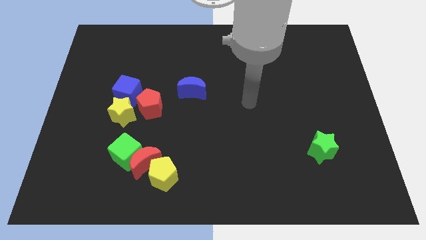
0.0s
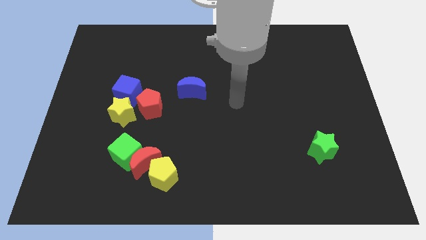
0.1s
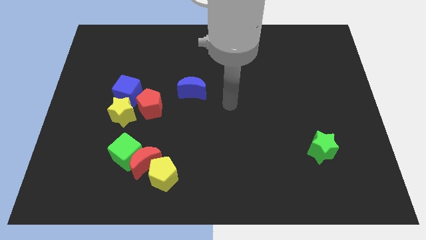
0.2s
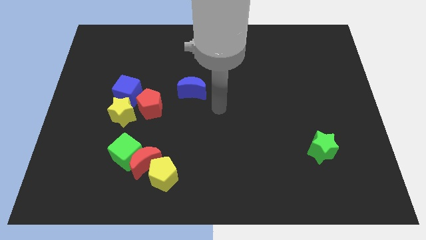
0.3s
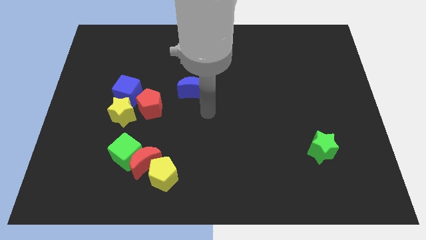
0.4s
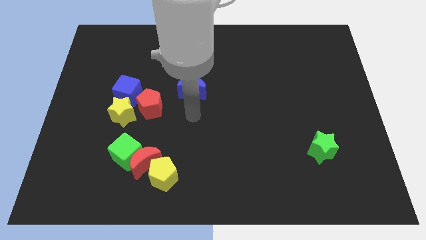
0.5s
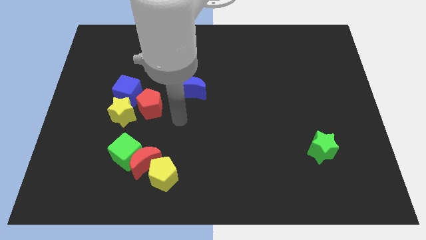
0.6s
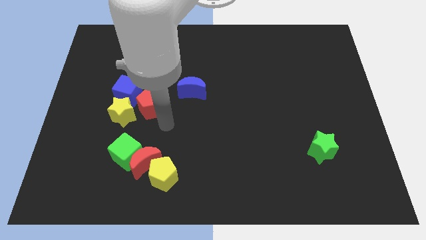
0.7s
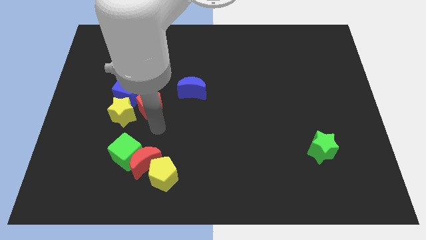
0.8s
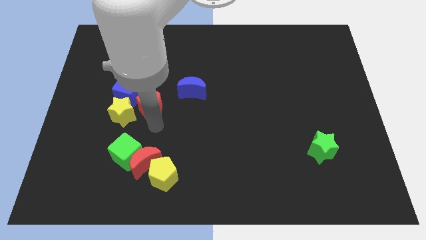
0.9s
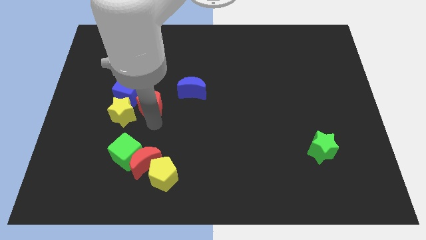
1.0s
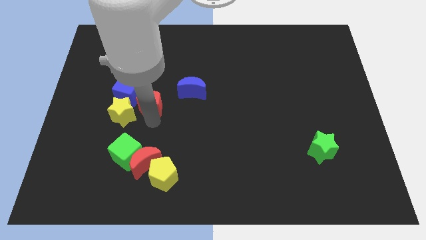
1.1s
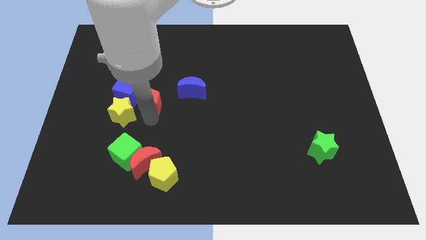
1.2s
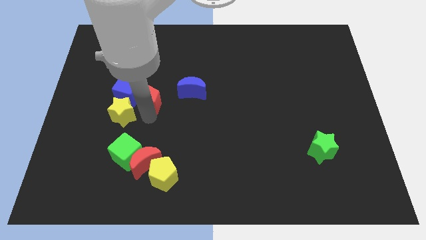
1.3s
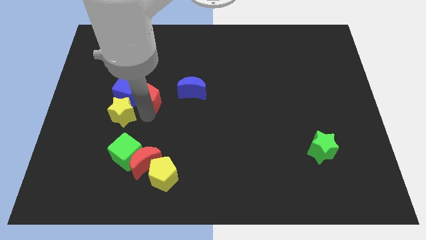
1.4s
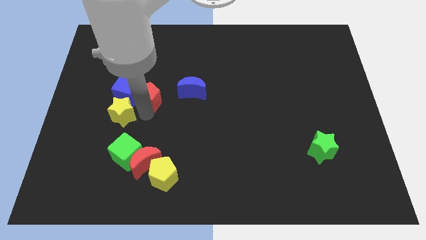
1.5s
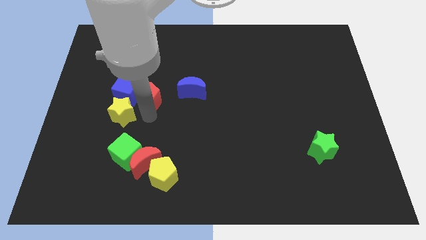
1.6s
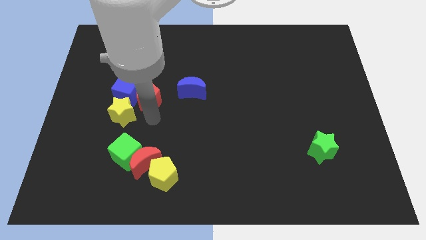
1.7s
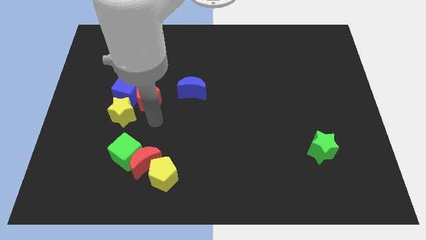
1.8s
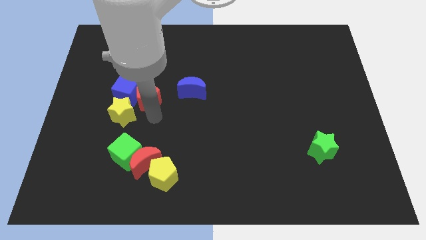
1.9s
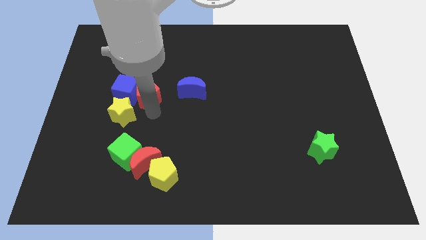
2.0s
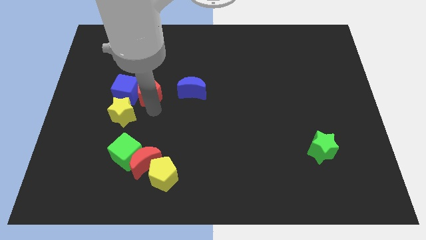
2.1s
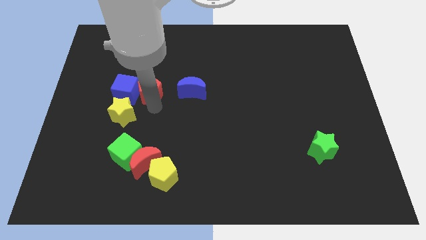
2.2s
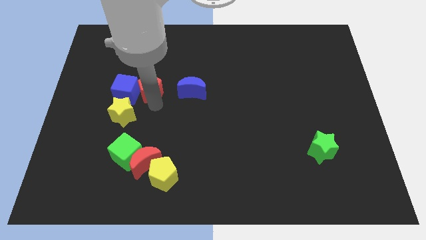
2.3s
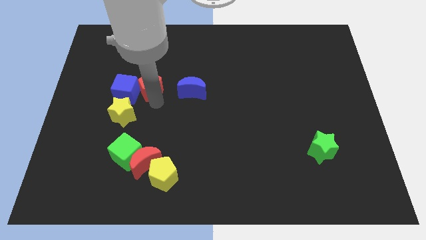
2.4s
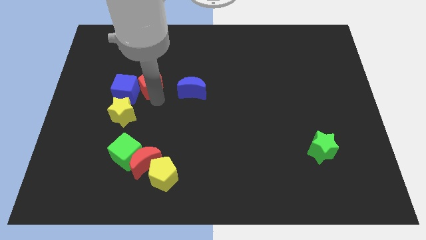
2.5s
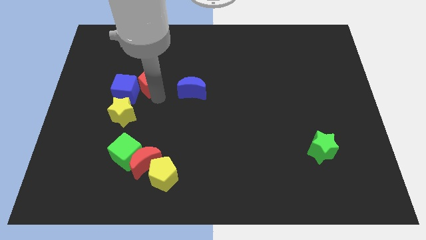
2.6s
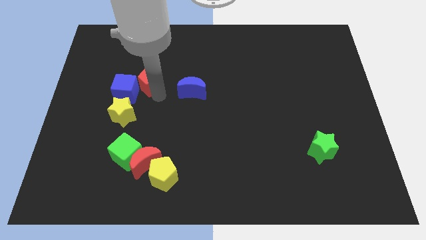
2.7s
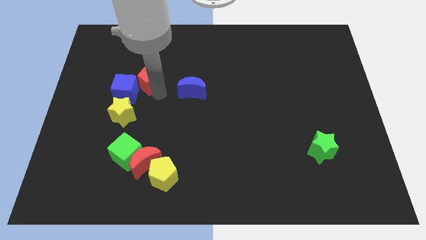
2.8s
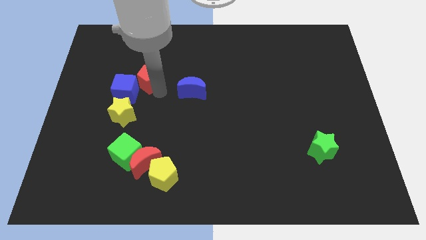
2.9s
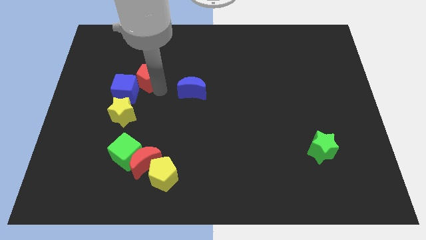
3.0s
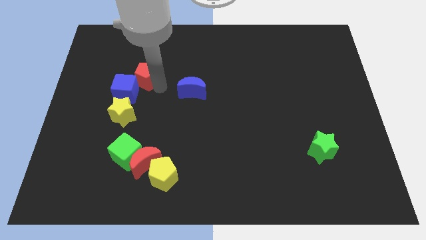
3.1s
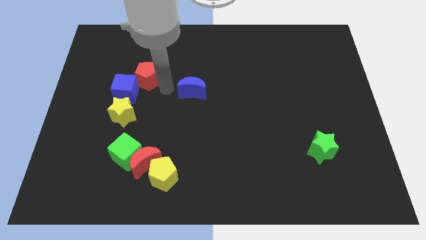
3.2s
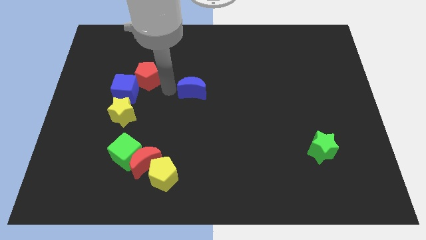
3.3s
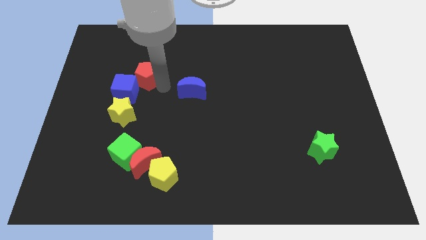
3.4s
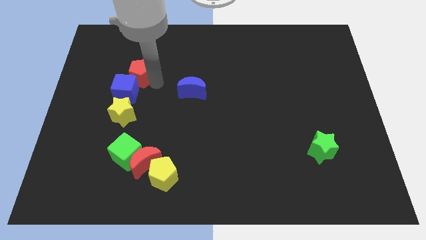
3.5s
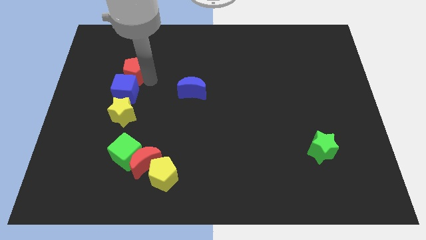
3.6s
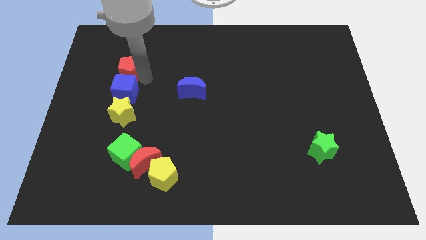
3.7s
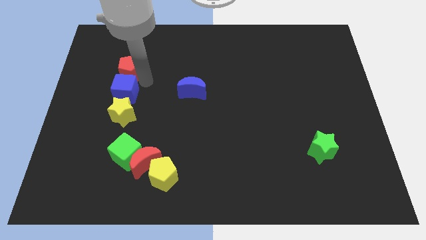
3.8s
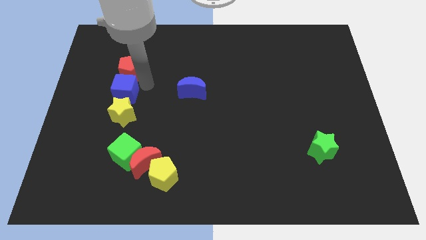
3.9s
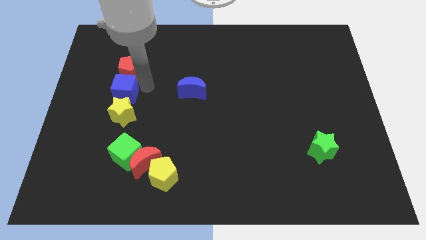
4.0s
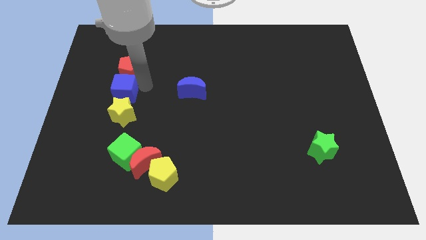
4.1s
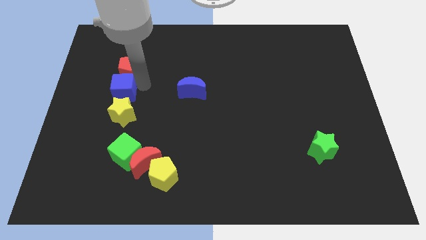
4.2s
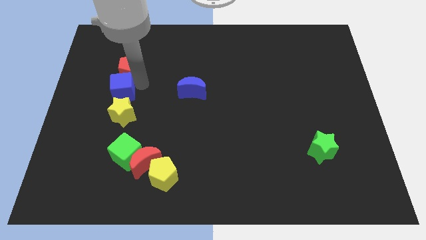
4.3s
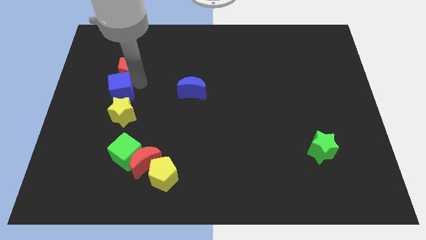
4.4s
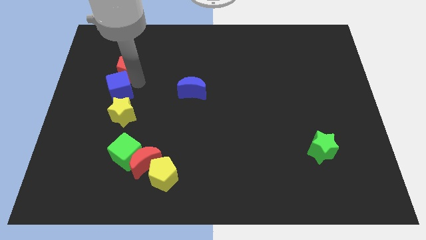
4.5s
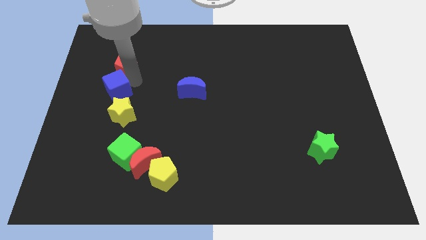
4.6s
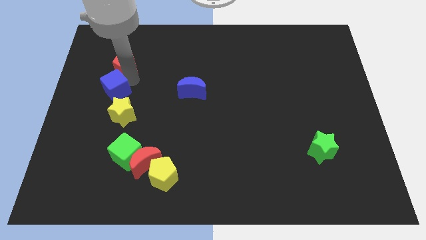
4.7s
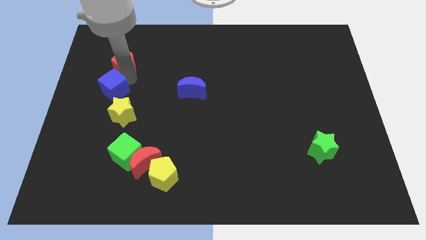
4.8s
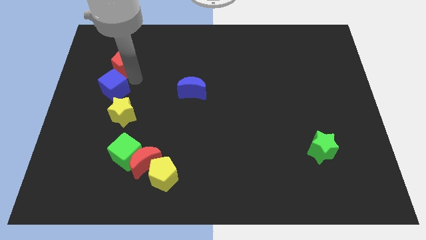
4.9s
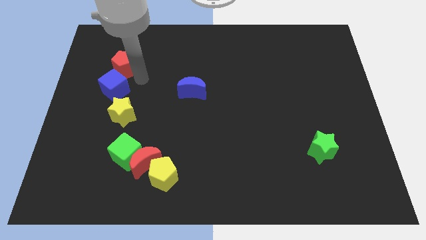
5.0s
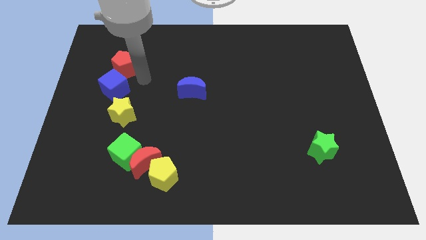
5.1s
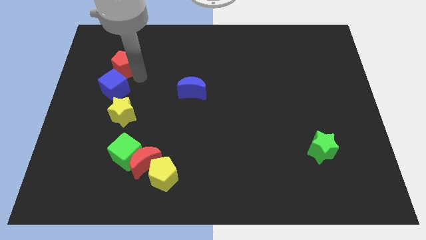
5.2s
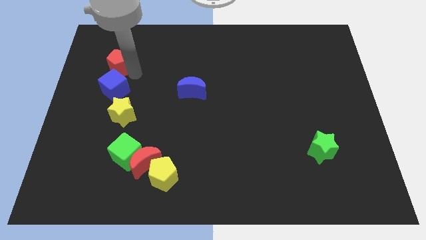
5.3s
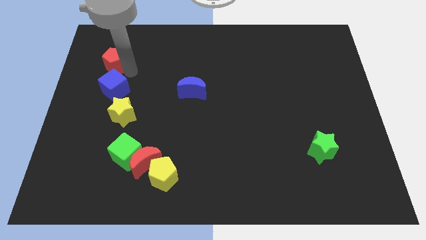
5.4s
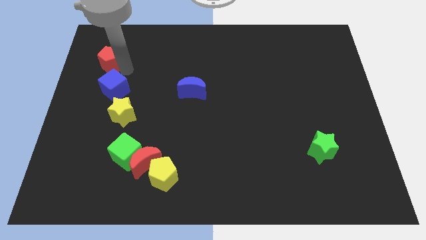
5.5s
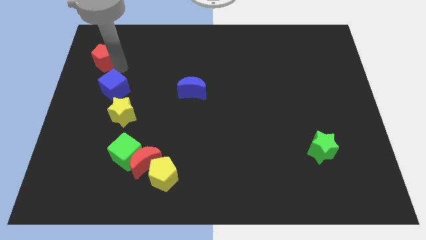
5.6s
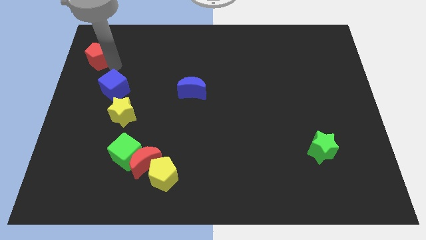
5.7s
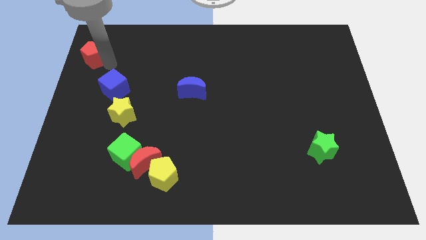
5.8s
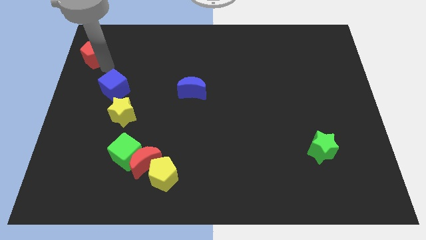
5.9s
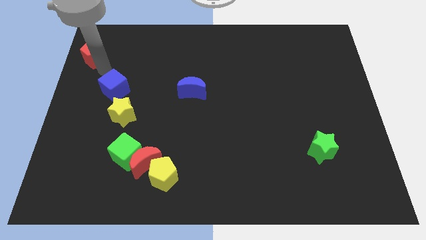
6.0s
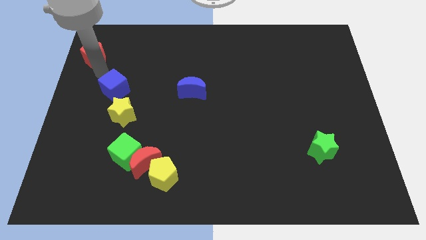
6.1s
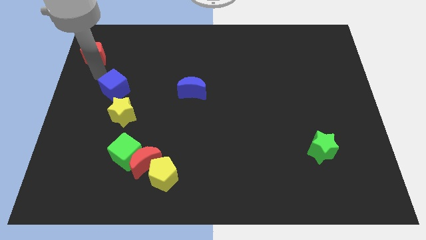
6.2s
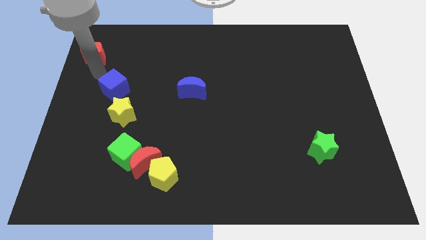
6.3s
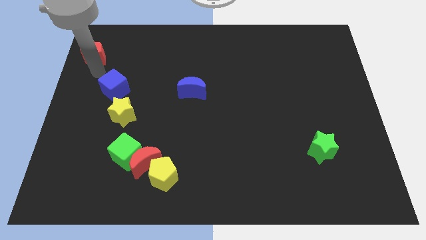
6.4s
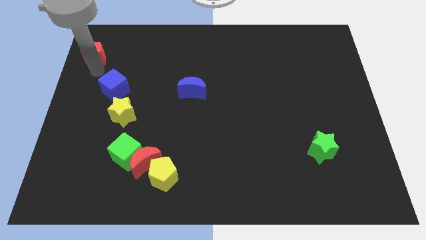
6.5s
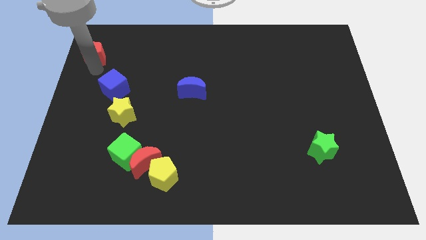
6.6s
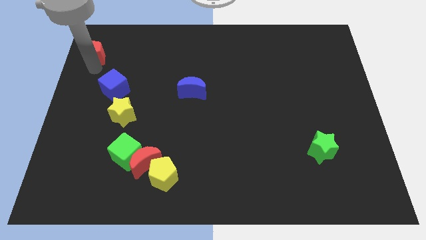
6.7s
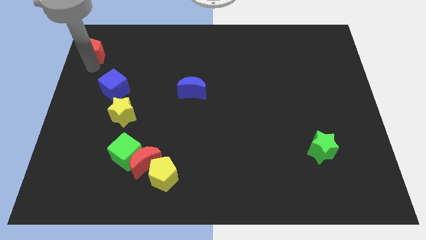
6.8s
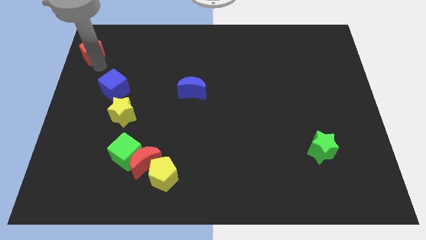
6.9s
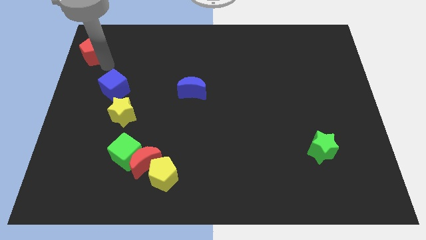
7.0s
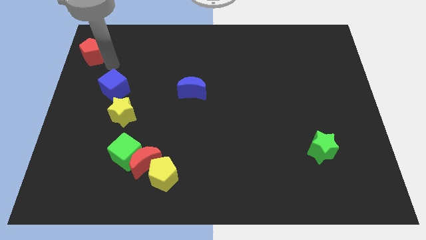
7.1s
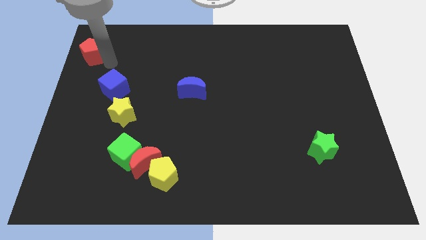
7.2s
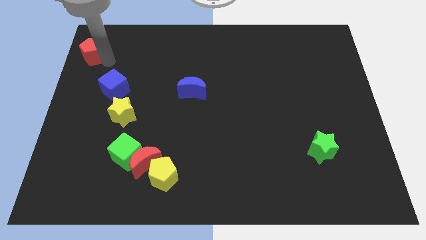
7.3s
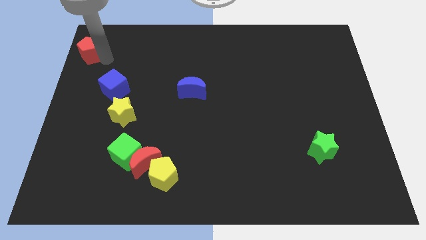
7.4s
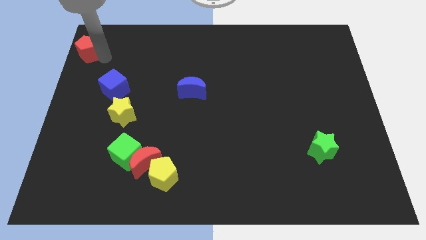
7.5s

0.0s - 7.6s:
push the red pentagon to the top left
